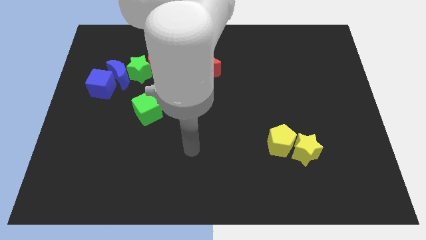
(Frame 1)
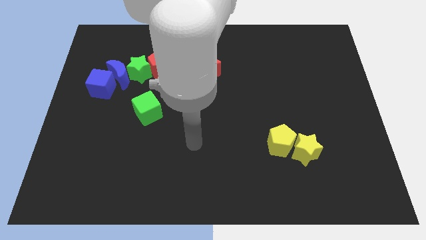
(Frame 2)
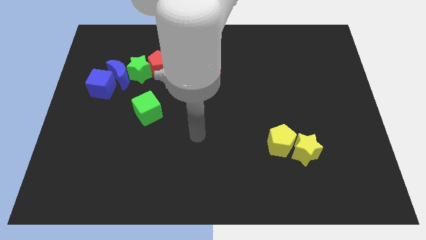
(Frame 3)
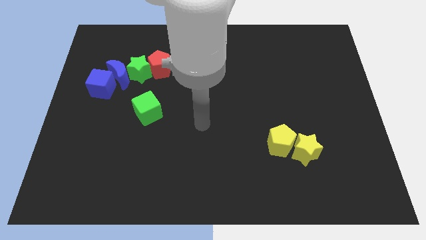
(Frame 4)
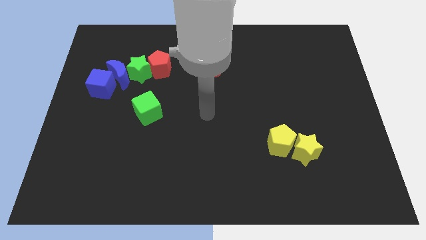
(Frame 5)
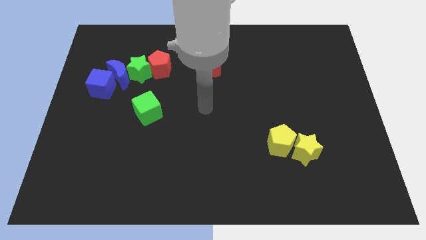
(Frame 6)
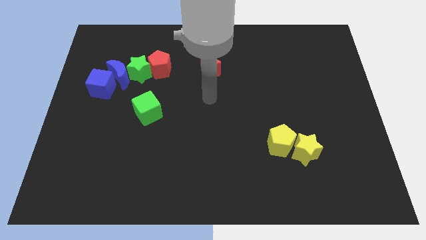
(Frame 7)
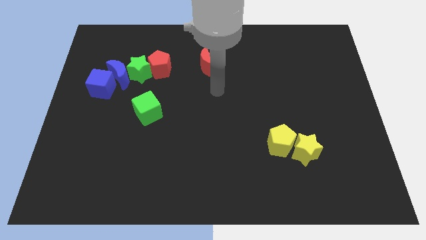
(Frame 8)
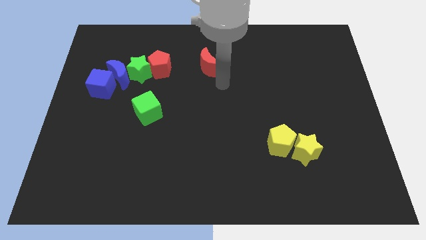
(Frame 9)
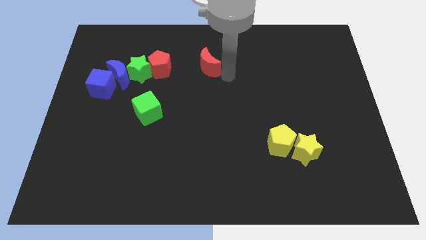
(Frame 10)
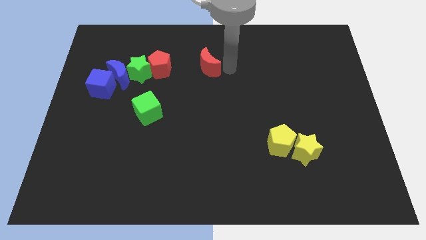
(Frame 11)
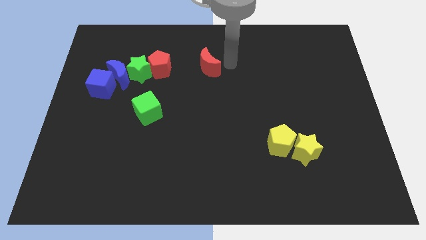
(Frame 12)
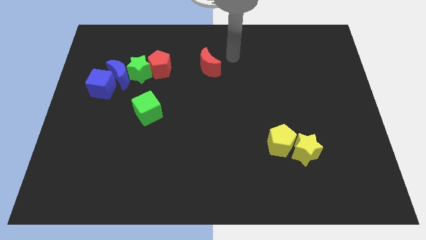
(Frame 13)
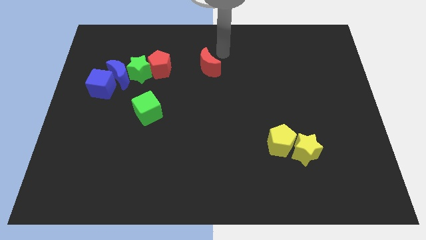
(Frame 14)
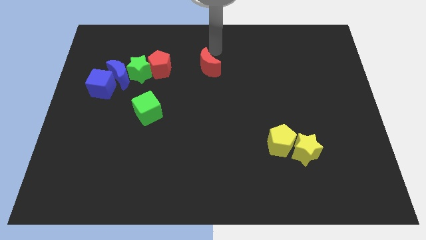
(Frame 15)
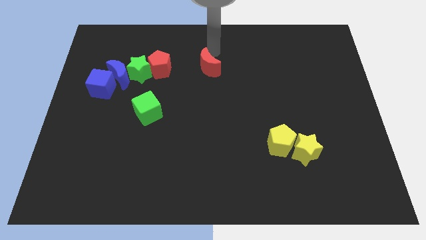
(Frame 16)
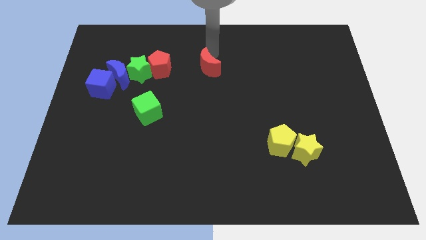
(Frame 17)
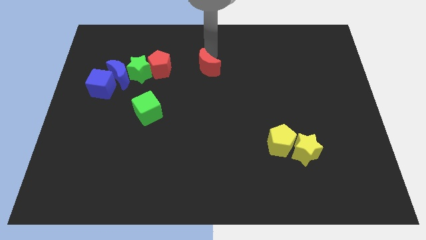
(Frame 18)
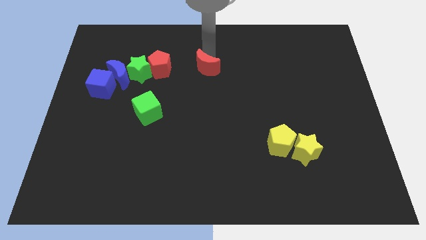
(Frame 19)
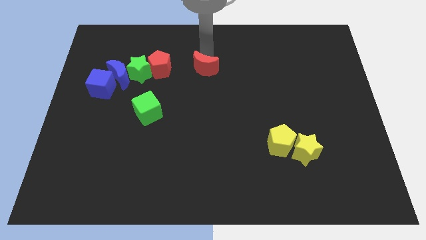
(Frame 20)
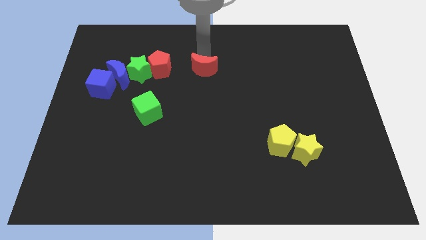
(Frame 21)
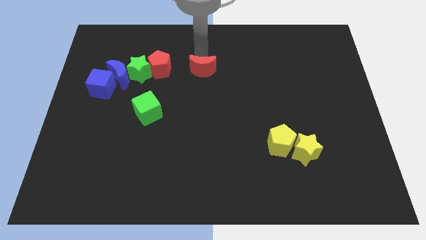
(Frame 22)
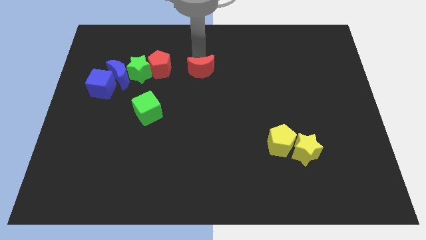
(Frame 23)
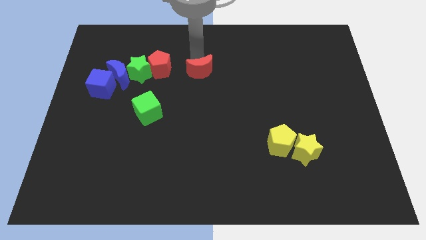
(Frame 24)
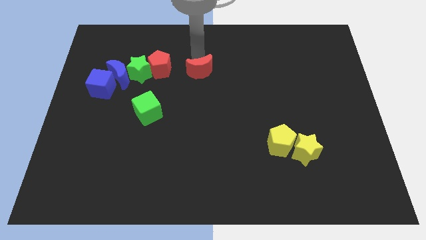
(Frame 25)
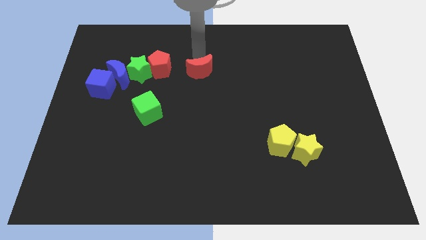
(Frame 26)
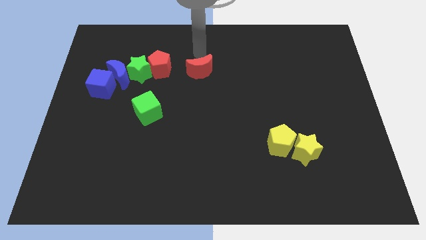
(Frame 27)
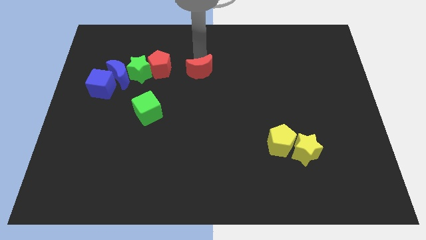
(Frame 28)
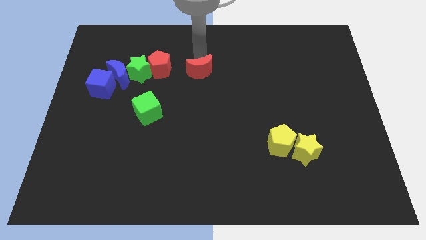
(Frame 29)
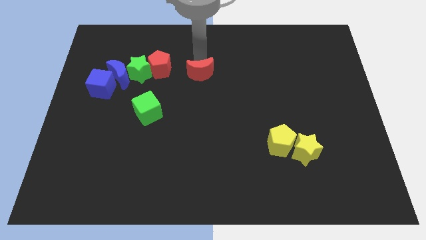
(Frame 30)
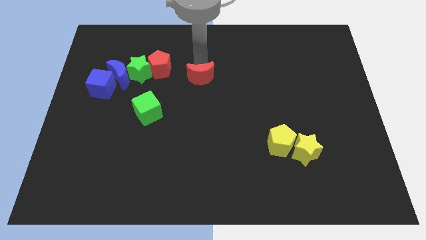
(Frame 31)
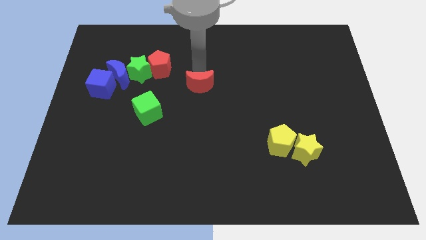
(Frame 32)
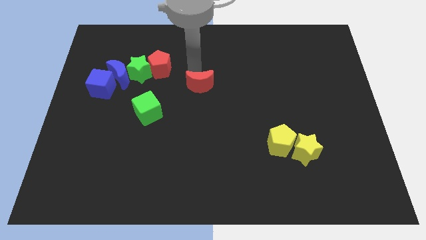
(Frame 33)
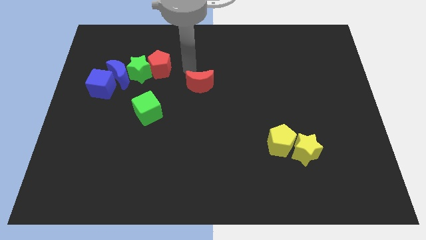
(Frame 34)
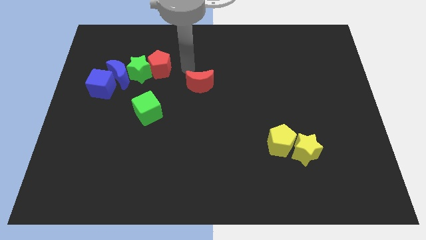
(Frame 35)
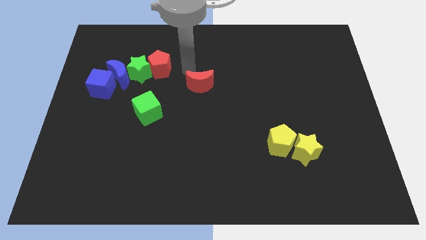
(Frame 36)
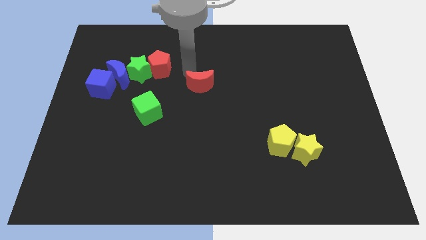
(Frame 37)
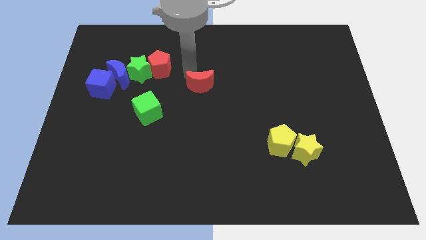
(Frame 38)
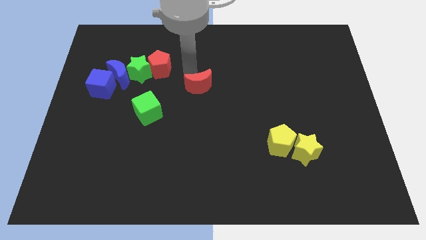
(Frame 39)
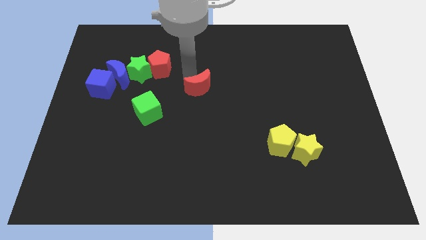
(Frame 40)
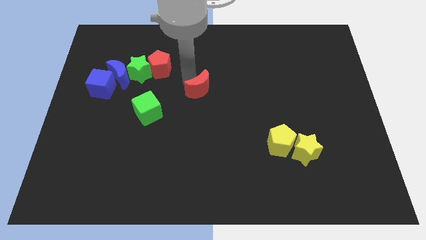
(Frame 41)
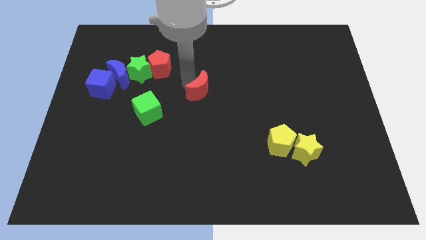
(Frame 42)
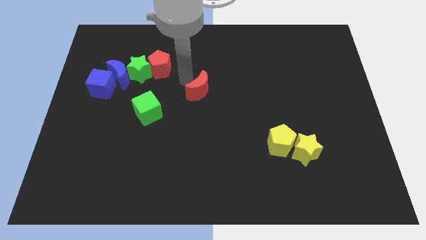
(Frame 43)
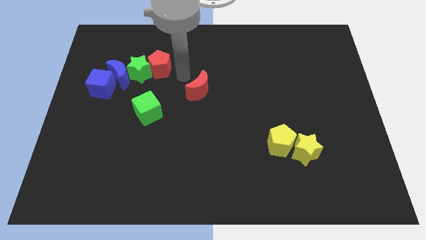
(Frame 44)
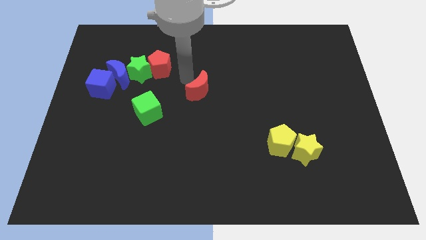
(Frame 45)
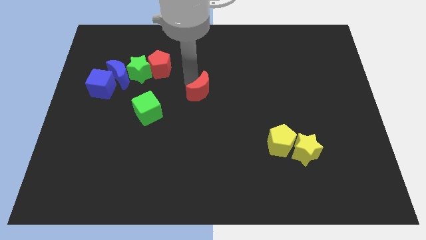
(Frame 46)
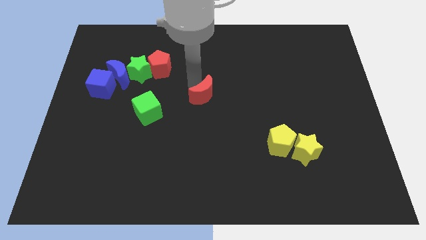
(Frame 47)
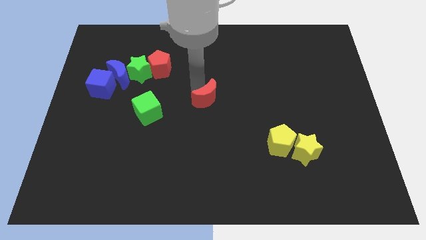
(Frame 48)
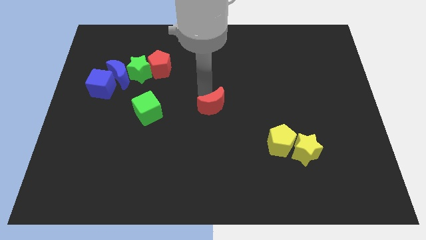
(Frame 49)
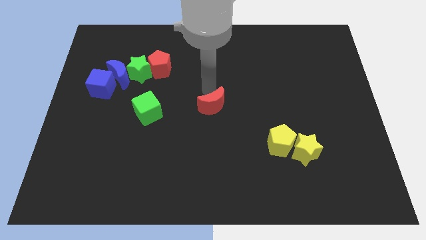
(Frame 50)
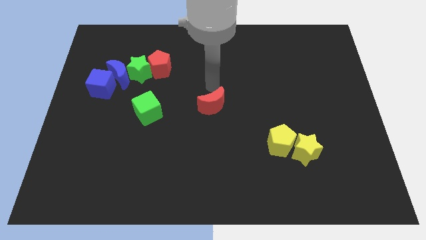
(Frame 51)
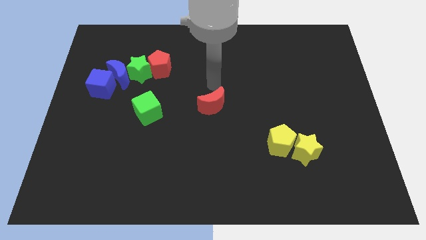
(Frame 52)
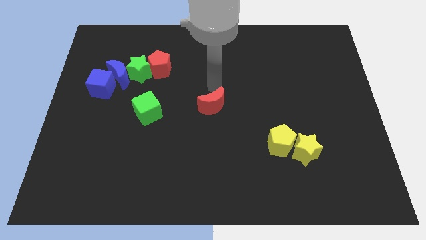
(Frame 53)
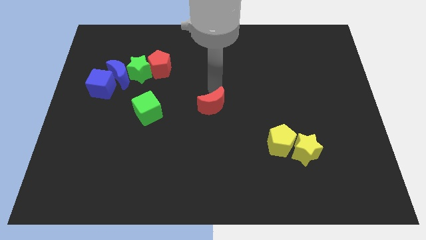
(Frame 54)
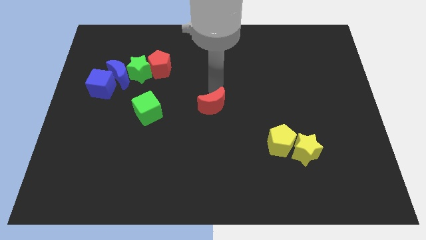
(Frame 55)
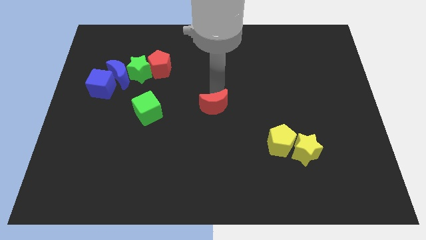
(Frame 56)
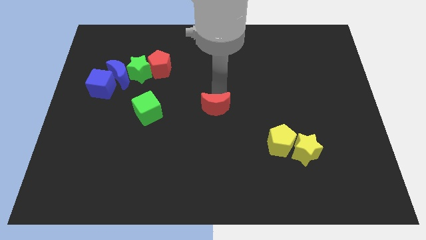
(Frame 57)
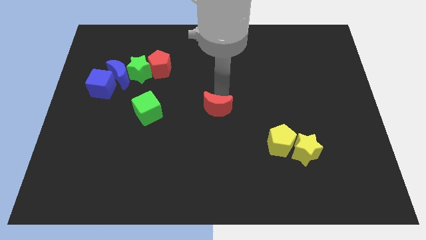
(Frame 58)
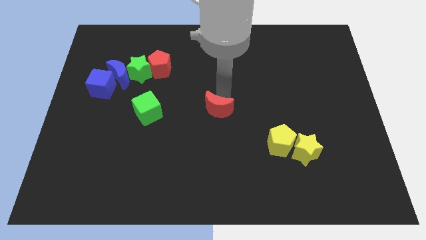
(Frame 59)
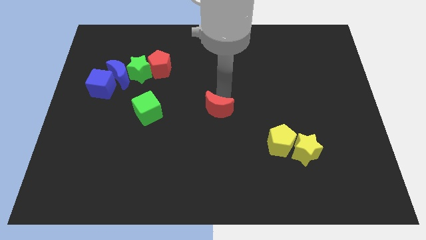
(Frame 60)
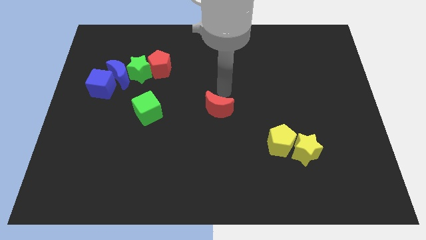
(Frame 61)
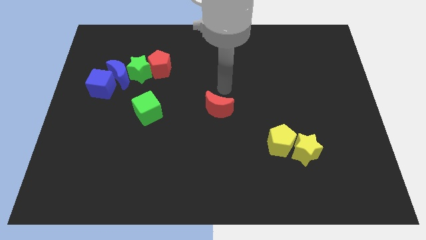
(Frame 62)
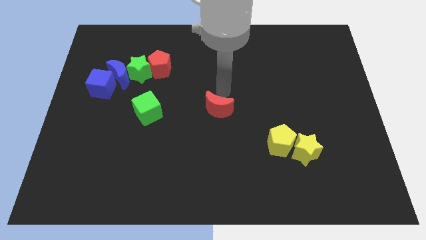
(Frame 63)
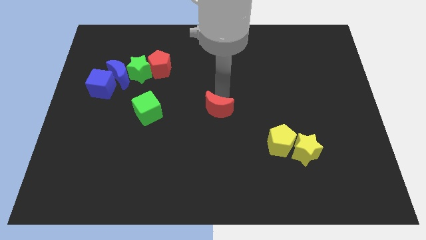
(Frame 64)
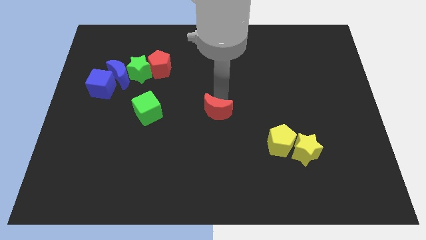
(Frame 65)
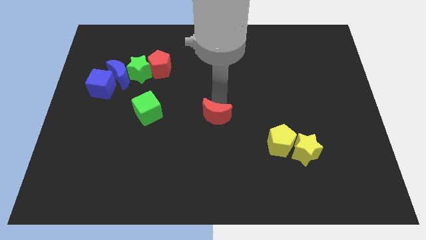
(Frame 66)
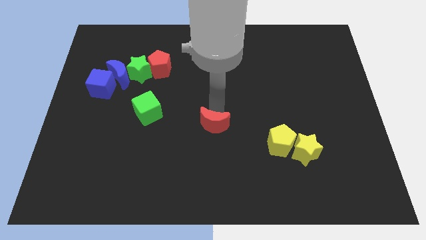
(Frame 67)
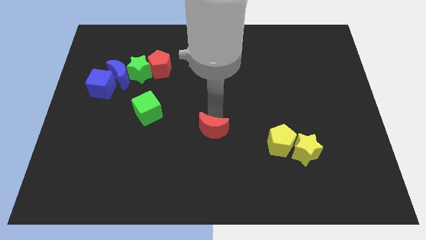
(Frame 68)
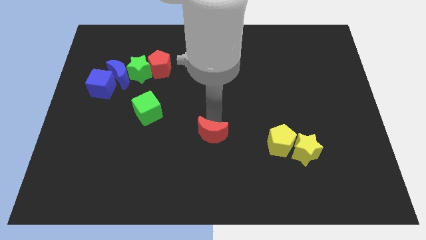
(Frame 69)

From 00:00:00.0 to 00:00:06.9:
slide the red moon downwards

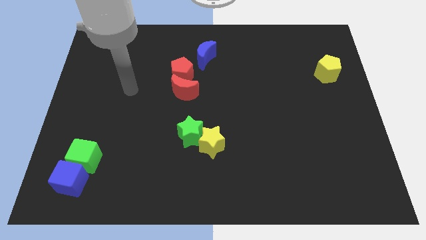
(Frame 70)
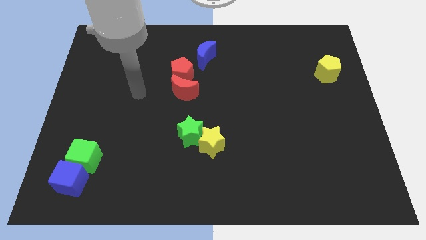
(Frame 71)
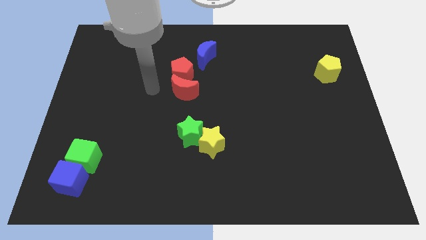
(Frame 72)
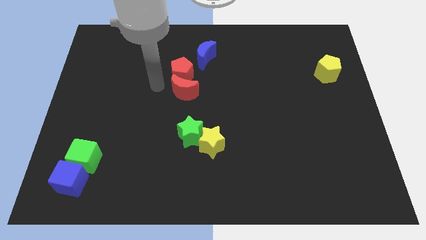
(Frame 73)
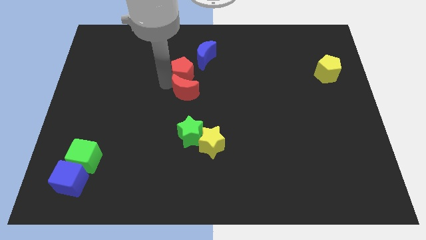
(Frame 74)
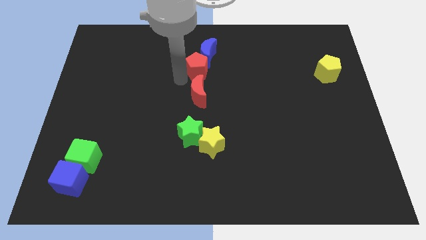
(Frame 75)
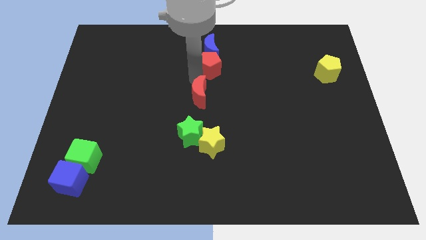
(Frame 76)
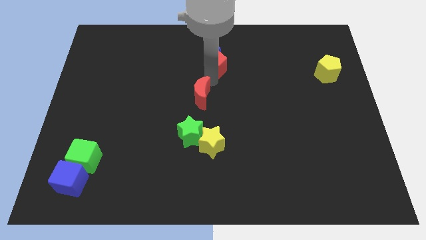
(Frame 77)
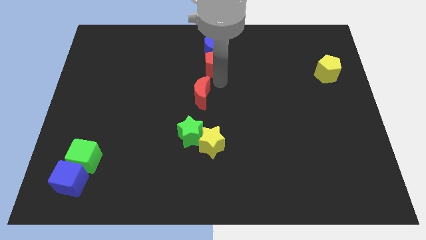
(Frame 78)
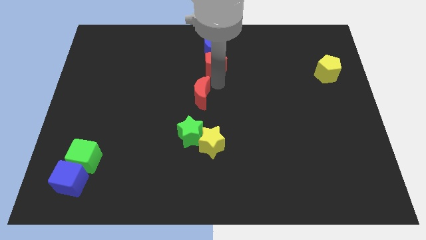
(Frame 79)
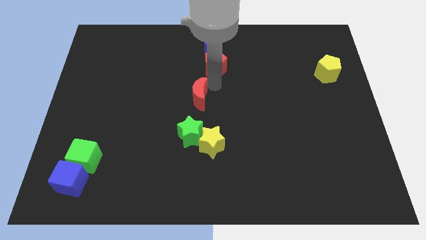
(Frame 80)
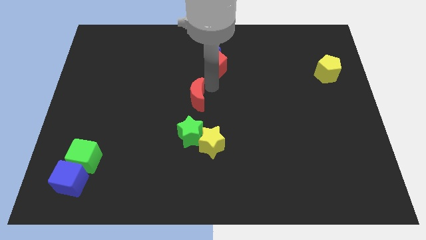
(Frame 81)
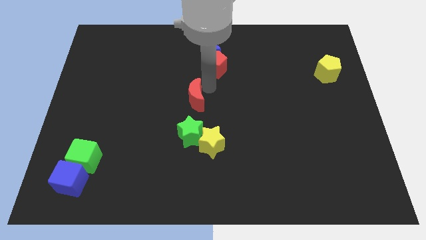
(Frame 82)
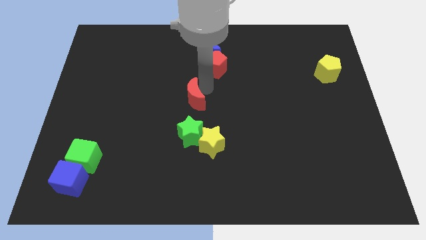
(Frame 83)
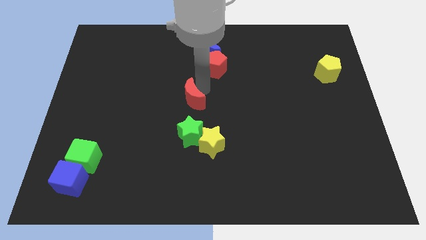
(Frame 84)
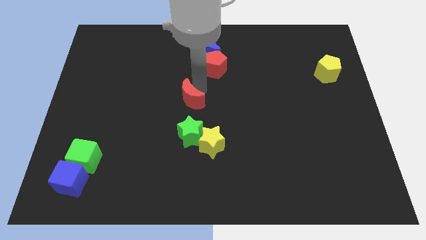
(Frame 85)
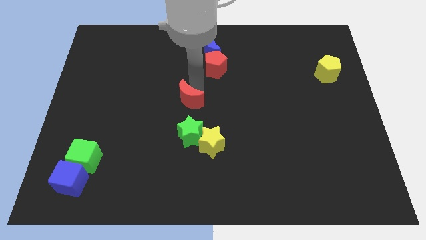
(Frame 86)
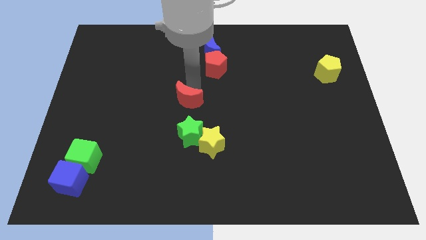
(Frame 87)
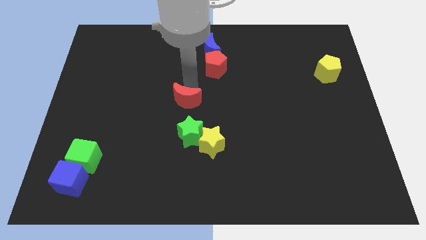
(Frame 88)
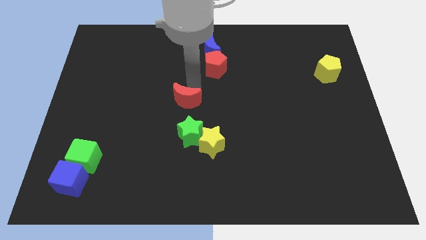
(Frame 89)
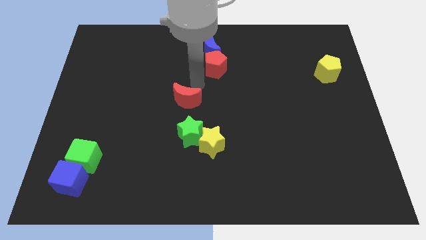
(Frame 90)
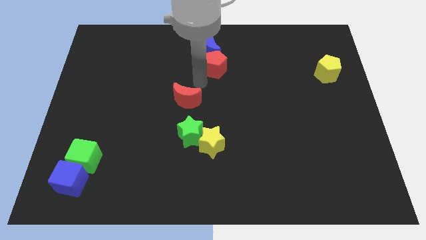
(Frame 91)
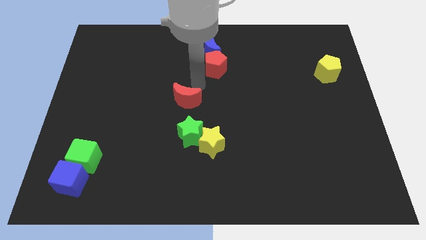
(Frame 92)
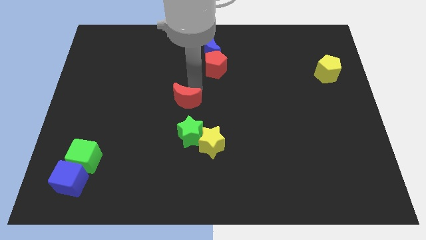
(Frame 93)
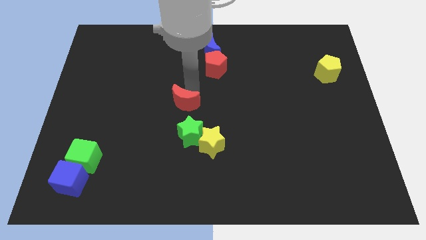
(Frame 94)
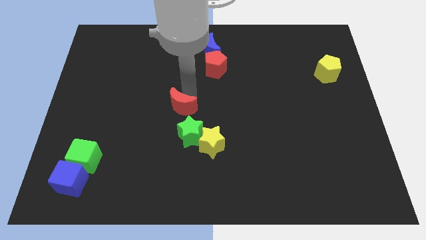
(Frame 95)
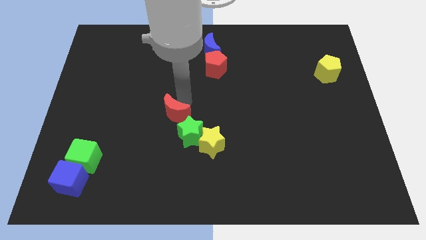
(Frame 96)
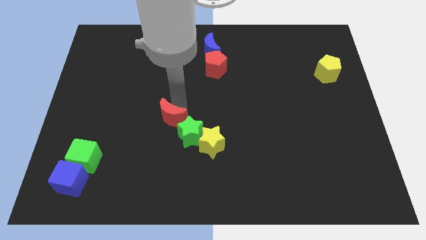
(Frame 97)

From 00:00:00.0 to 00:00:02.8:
push the red moon down slightly
